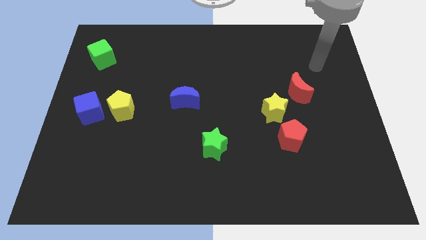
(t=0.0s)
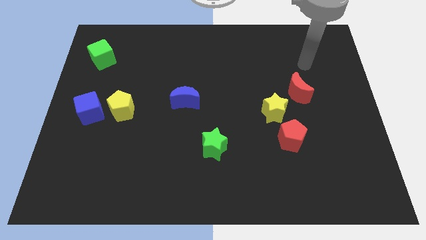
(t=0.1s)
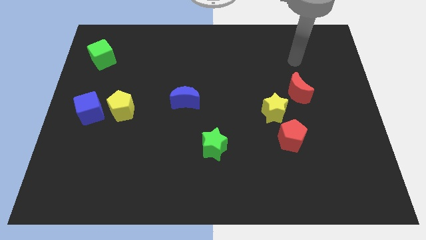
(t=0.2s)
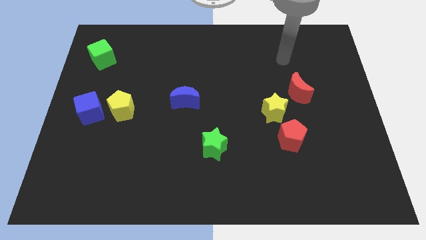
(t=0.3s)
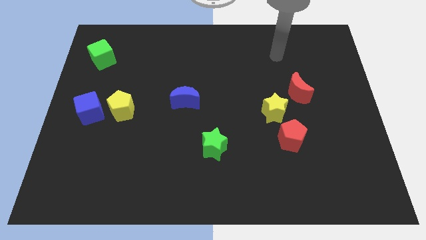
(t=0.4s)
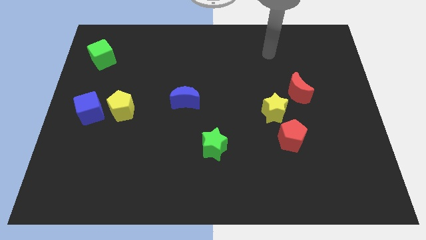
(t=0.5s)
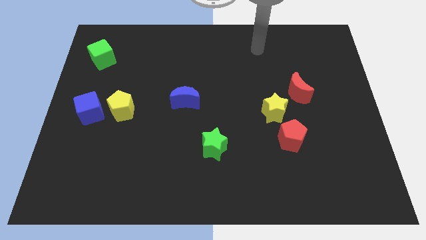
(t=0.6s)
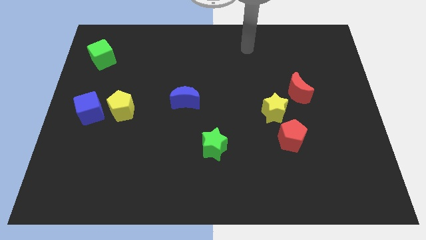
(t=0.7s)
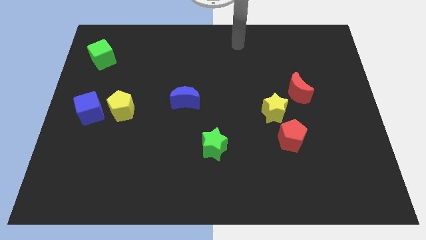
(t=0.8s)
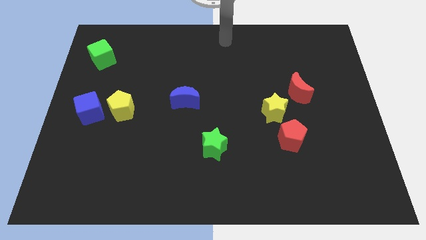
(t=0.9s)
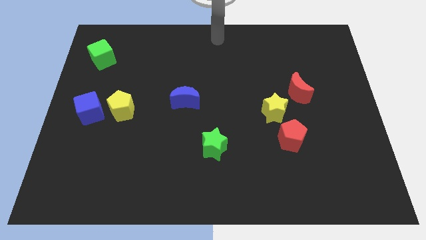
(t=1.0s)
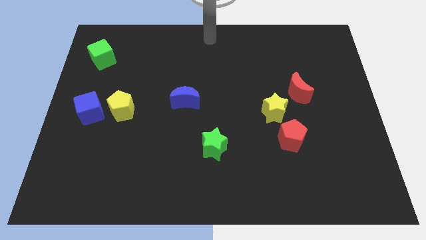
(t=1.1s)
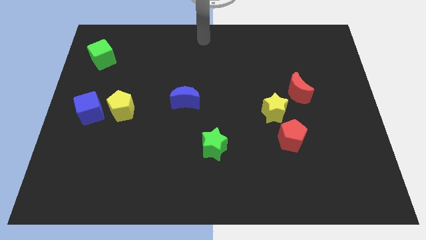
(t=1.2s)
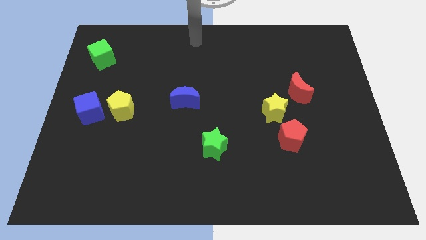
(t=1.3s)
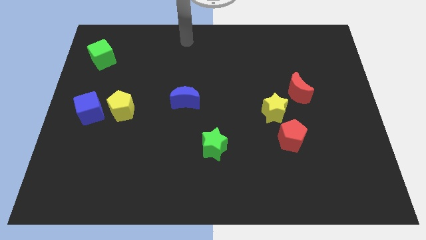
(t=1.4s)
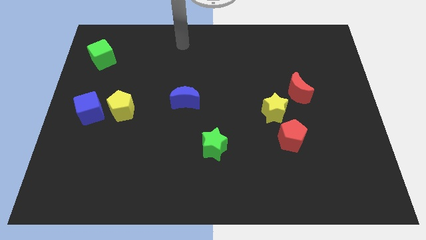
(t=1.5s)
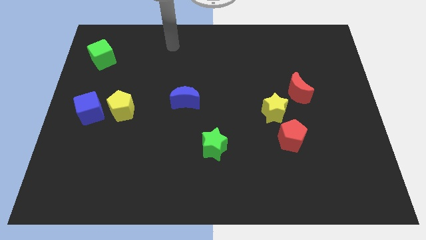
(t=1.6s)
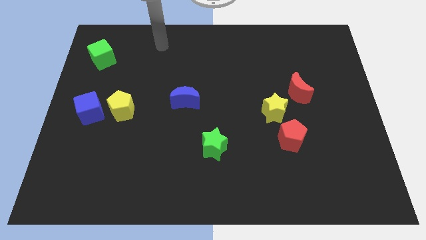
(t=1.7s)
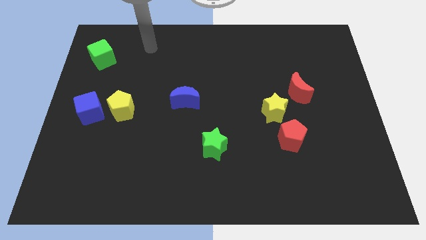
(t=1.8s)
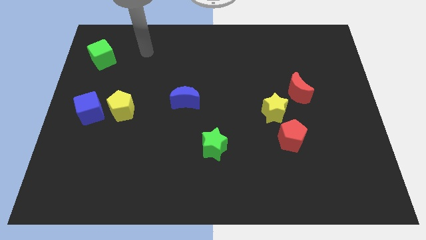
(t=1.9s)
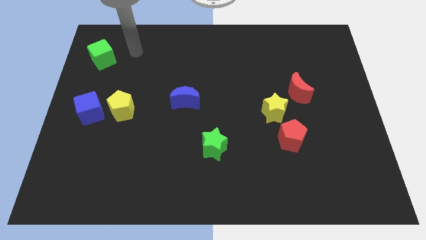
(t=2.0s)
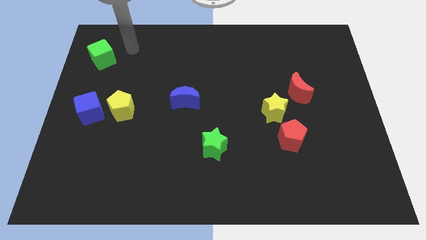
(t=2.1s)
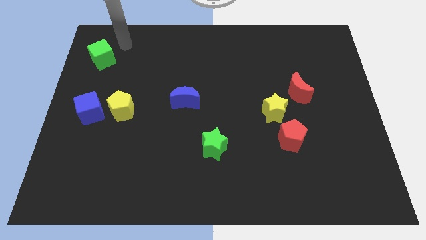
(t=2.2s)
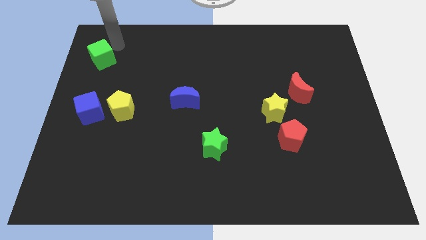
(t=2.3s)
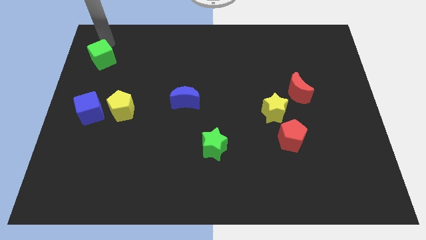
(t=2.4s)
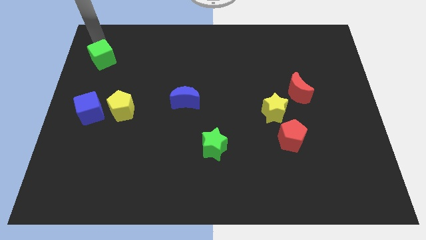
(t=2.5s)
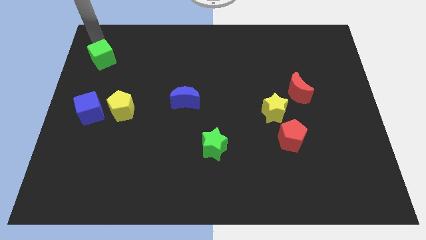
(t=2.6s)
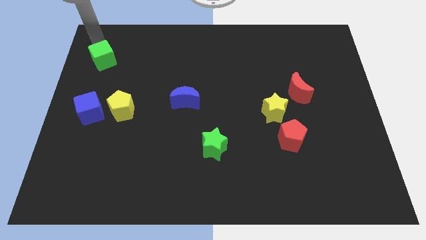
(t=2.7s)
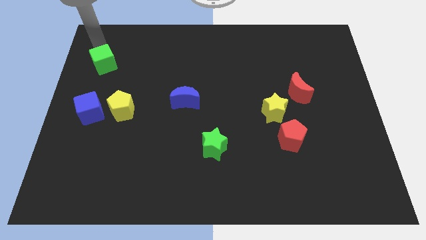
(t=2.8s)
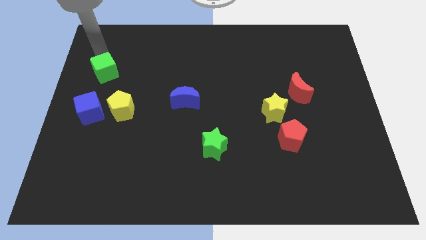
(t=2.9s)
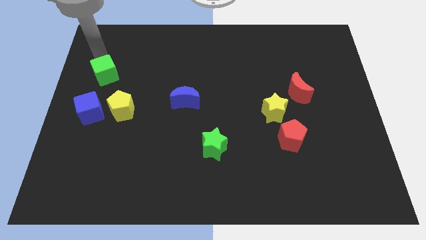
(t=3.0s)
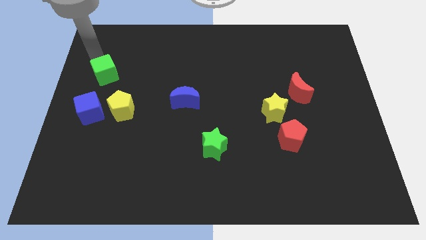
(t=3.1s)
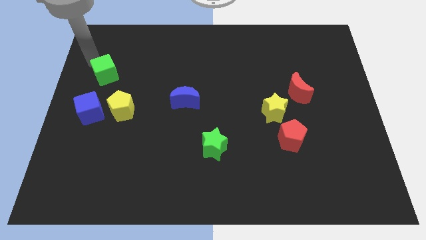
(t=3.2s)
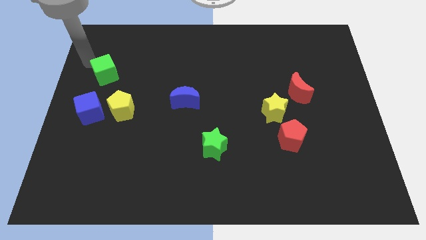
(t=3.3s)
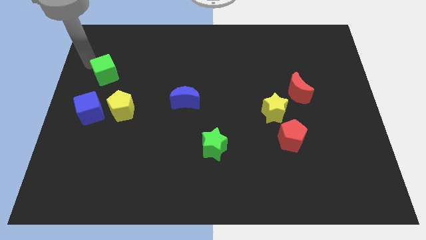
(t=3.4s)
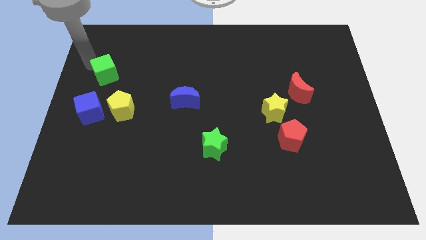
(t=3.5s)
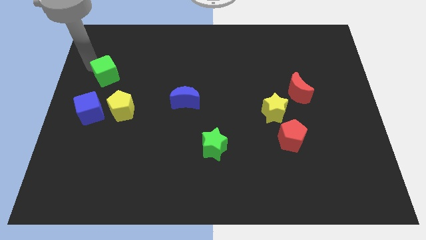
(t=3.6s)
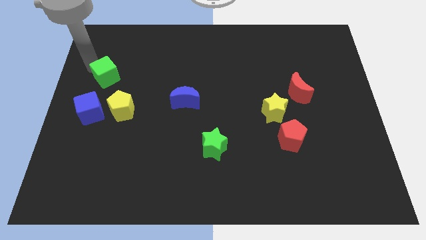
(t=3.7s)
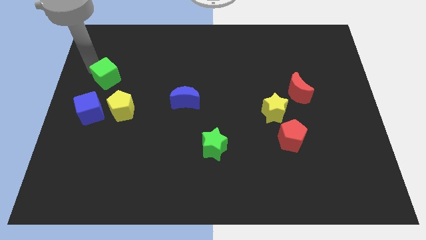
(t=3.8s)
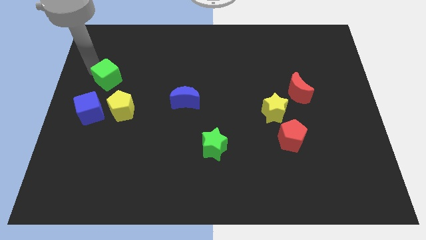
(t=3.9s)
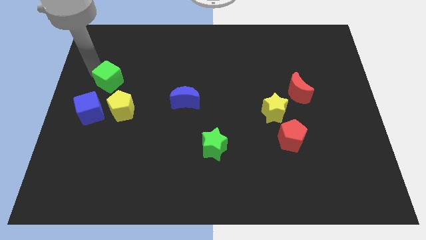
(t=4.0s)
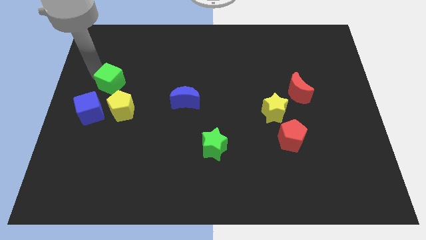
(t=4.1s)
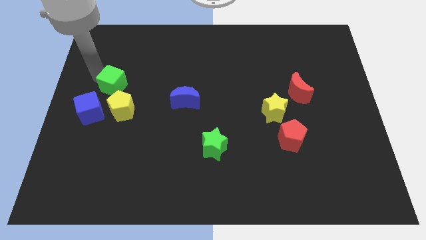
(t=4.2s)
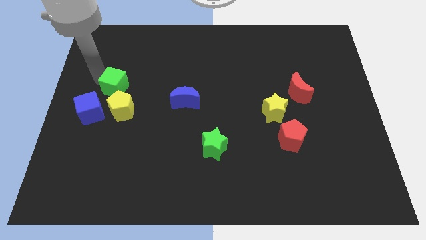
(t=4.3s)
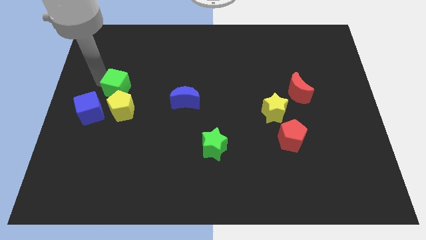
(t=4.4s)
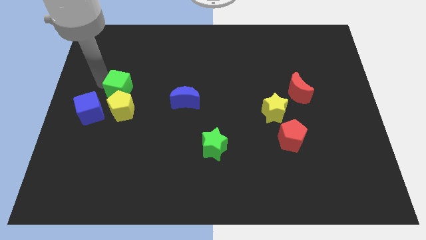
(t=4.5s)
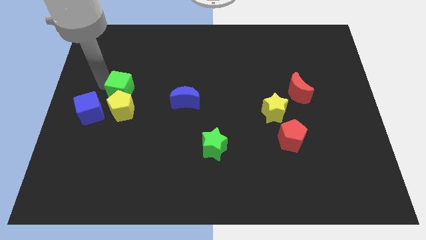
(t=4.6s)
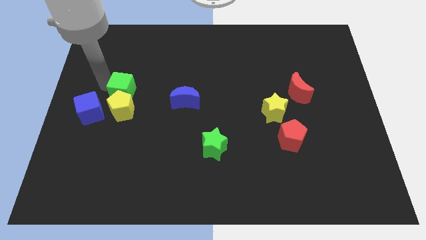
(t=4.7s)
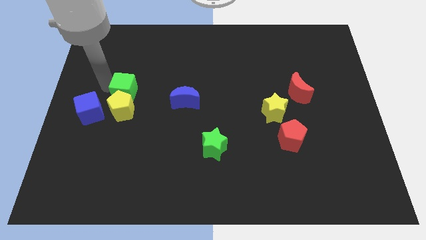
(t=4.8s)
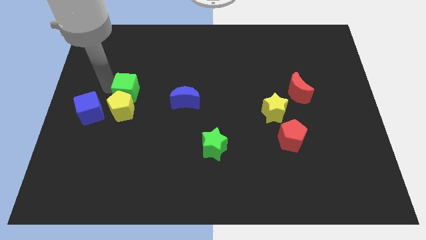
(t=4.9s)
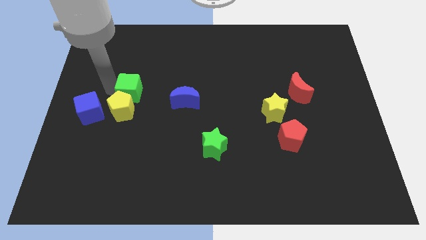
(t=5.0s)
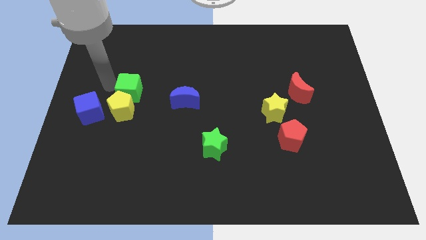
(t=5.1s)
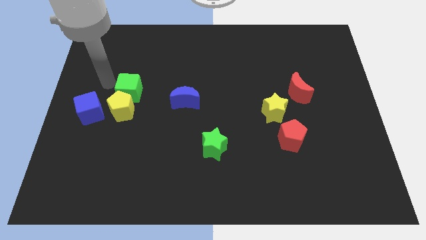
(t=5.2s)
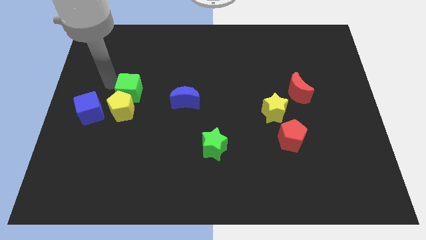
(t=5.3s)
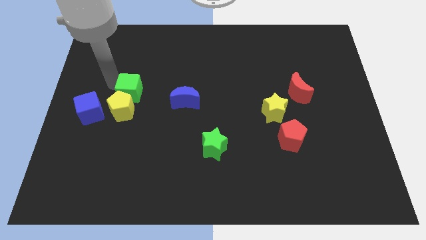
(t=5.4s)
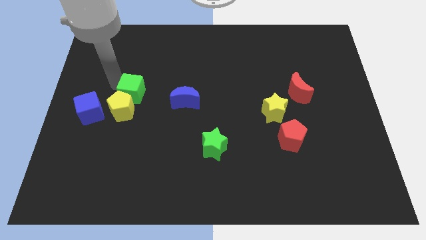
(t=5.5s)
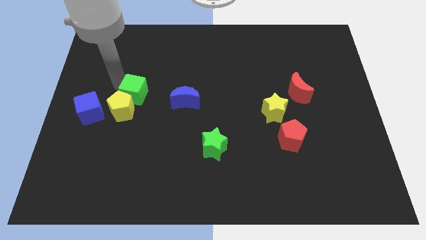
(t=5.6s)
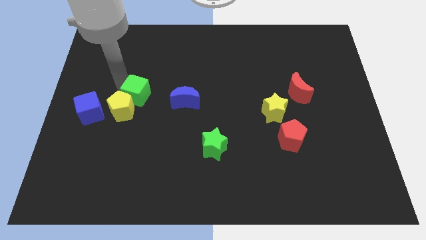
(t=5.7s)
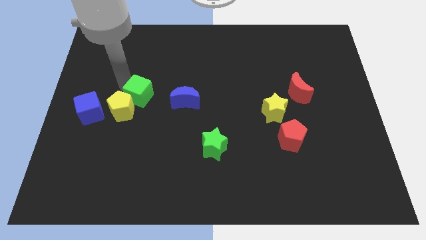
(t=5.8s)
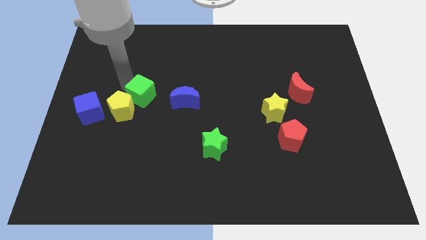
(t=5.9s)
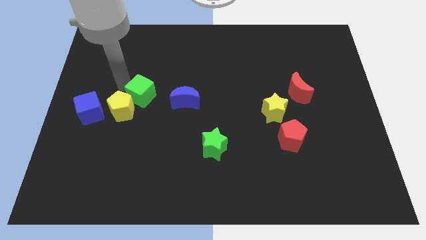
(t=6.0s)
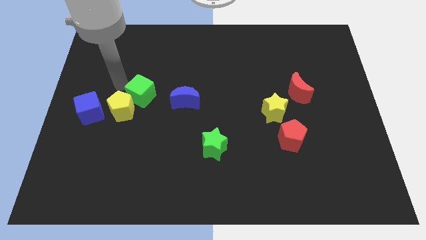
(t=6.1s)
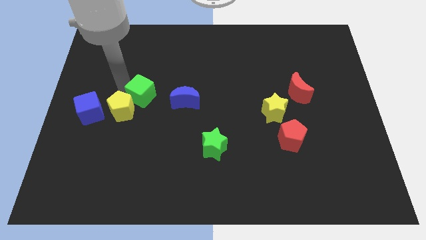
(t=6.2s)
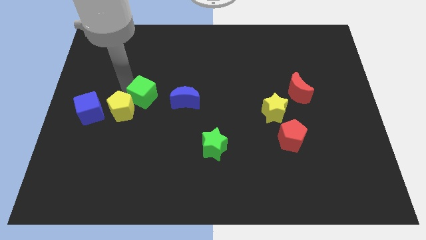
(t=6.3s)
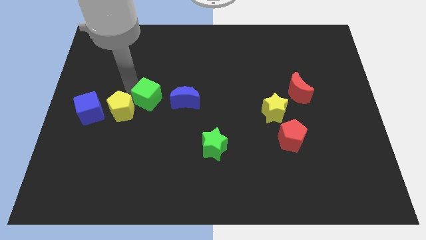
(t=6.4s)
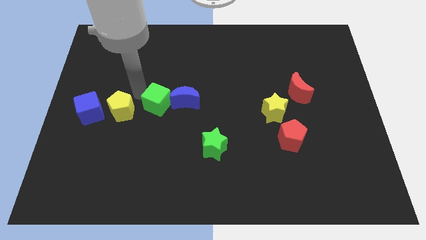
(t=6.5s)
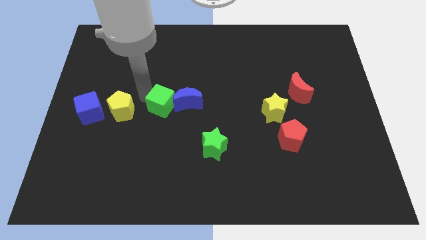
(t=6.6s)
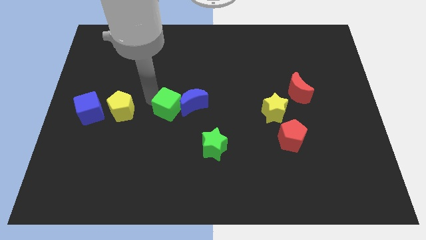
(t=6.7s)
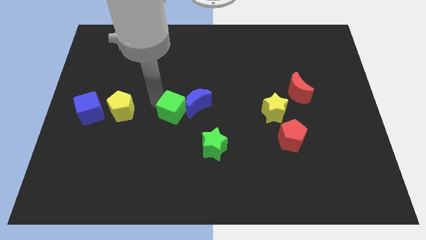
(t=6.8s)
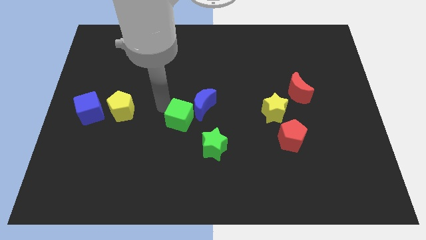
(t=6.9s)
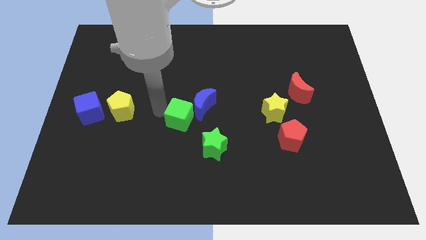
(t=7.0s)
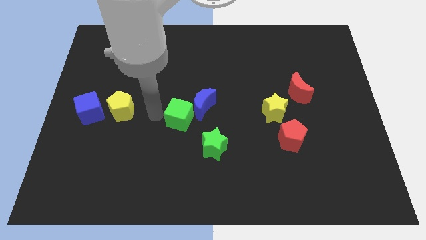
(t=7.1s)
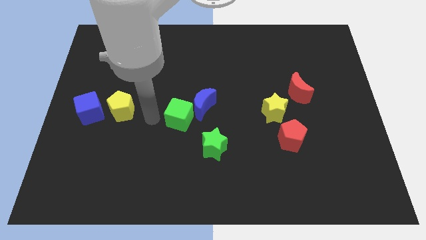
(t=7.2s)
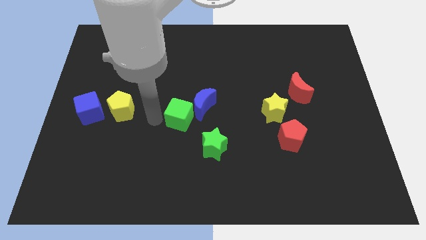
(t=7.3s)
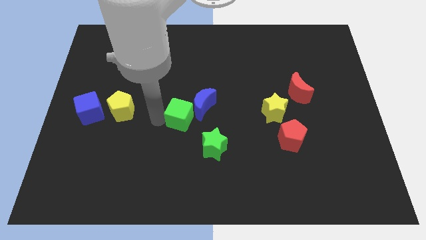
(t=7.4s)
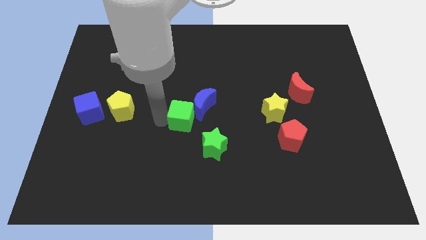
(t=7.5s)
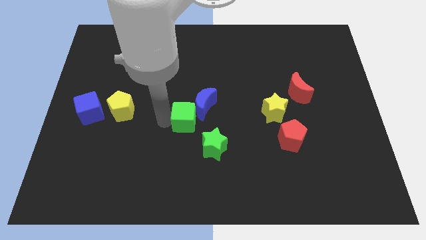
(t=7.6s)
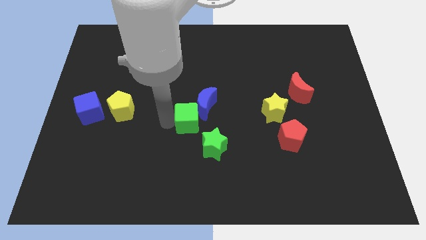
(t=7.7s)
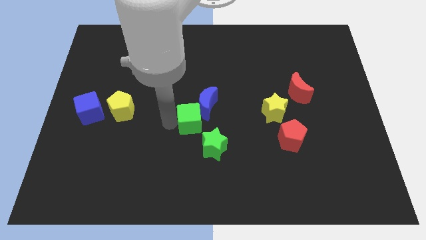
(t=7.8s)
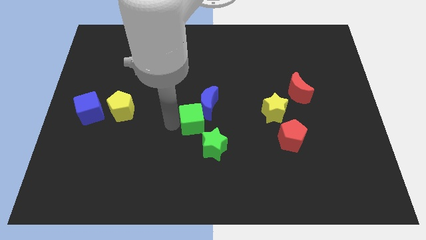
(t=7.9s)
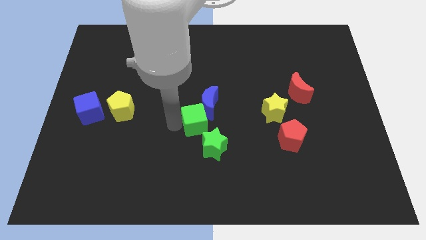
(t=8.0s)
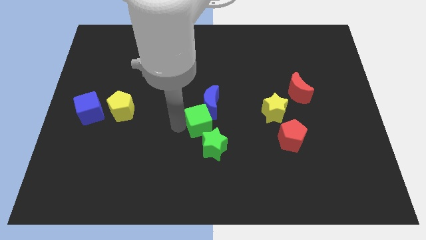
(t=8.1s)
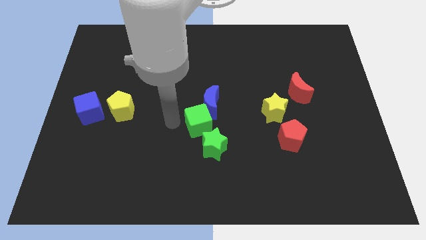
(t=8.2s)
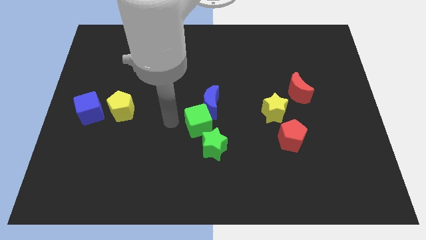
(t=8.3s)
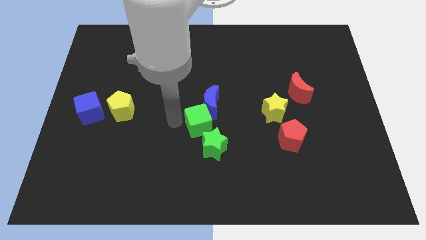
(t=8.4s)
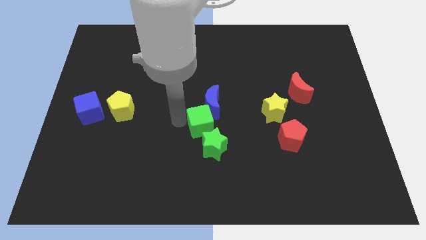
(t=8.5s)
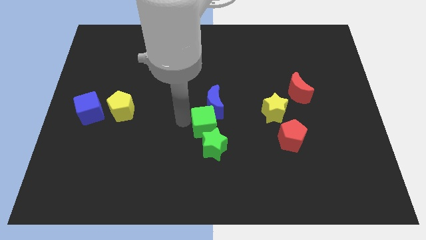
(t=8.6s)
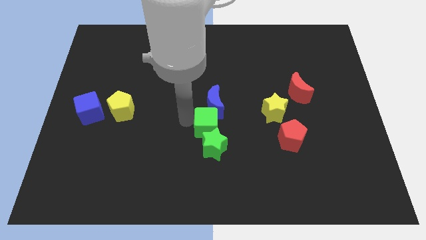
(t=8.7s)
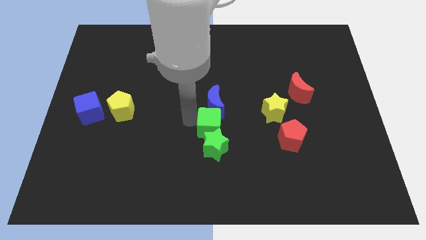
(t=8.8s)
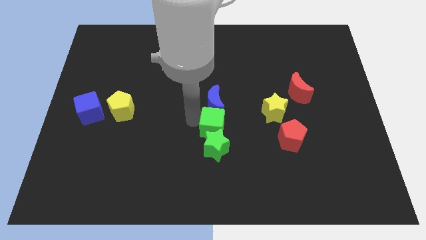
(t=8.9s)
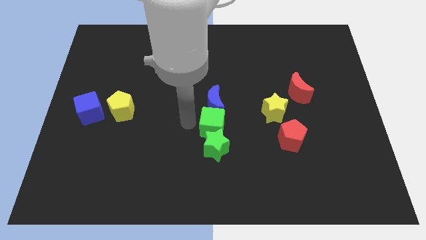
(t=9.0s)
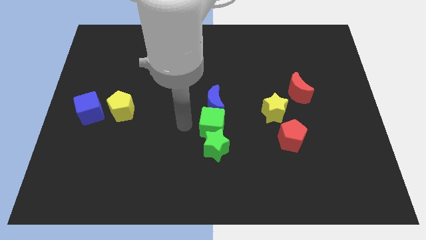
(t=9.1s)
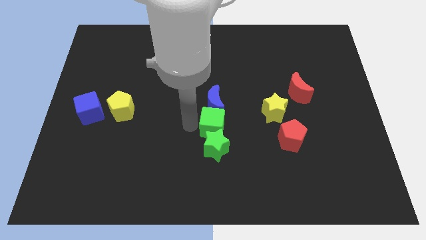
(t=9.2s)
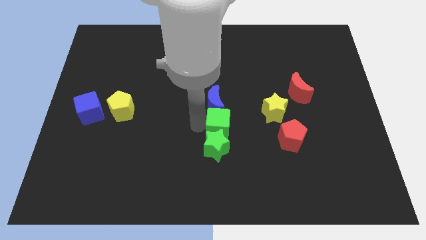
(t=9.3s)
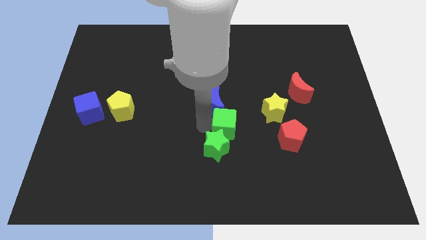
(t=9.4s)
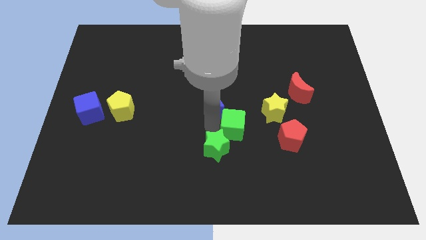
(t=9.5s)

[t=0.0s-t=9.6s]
move the green cube to the bottom left of the yellow star
